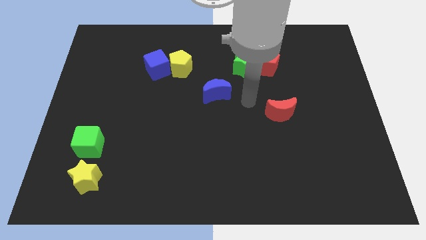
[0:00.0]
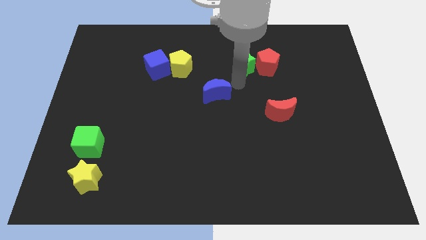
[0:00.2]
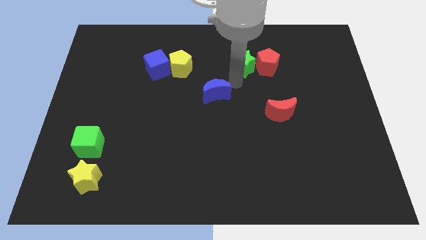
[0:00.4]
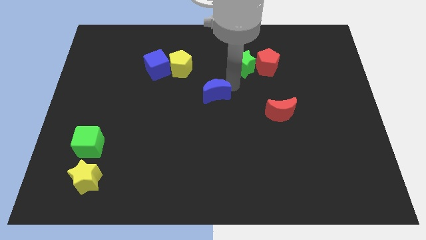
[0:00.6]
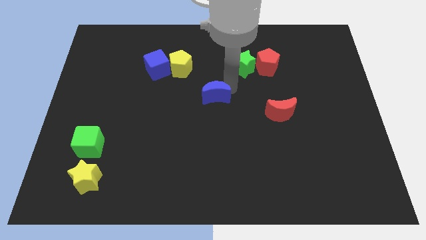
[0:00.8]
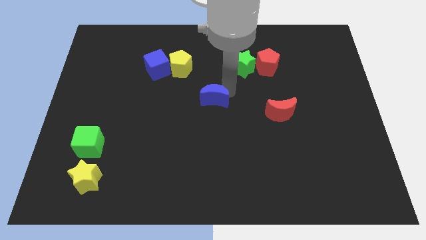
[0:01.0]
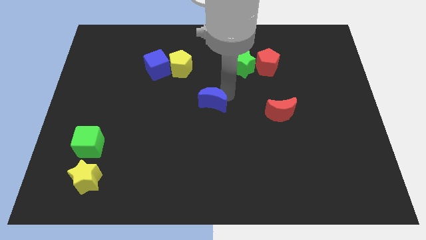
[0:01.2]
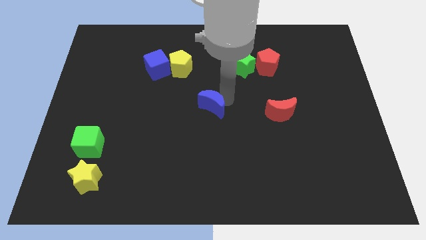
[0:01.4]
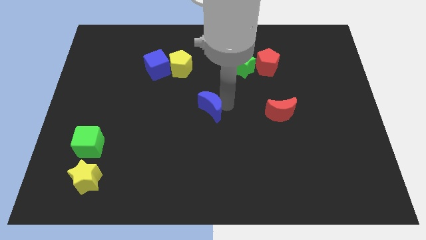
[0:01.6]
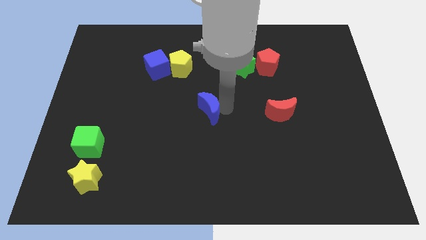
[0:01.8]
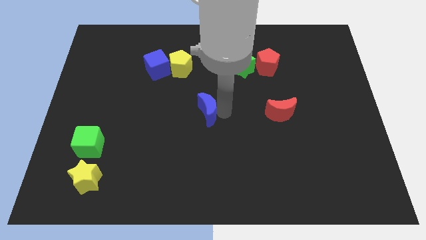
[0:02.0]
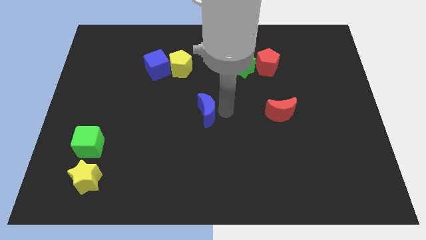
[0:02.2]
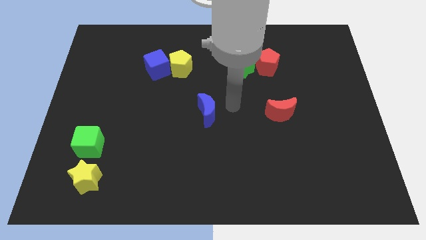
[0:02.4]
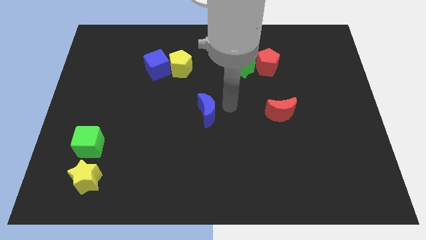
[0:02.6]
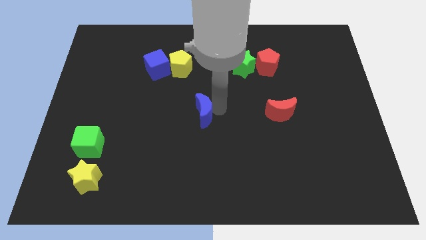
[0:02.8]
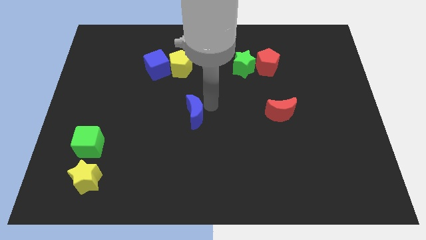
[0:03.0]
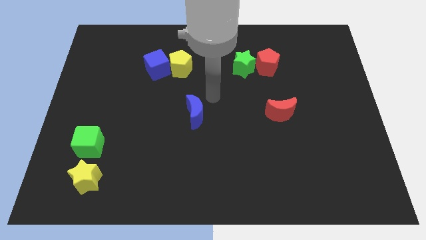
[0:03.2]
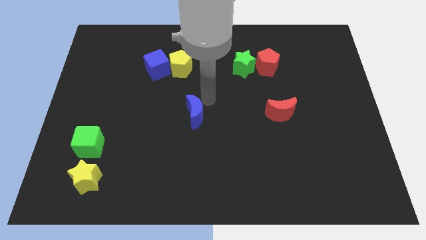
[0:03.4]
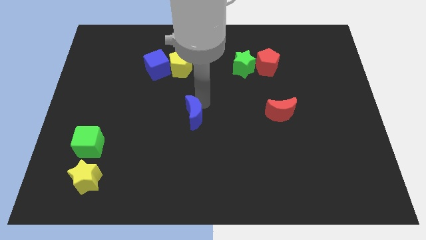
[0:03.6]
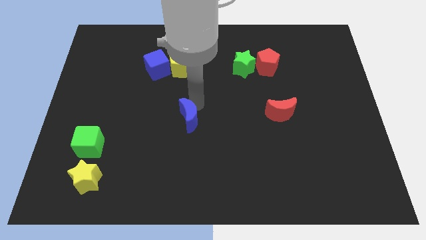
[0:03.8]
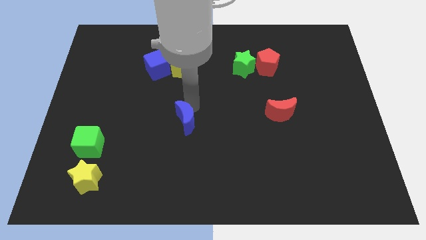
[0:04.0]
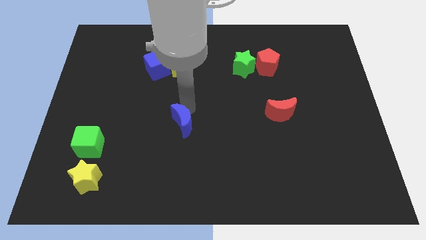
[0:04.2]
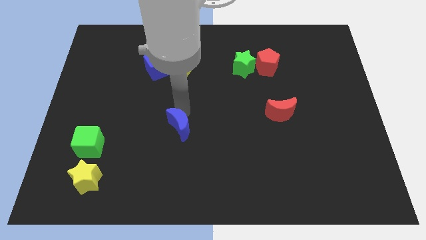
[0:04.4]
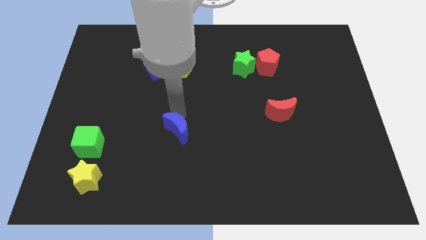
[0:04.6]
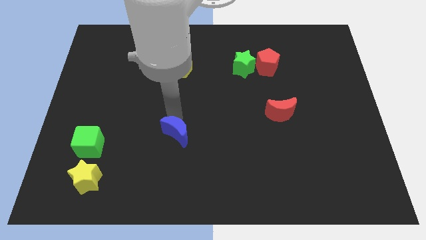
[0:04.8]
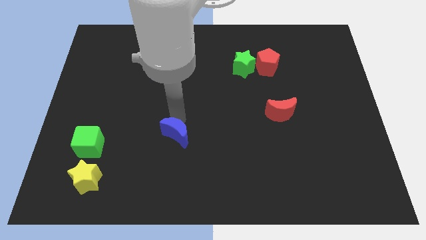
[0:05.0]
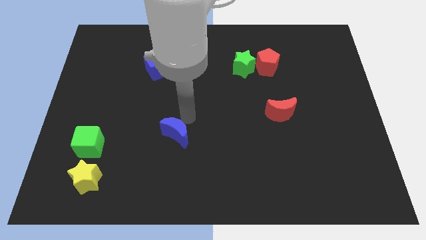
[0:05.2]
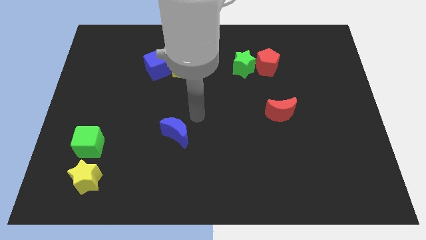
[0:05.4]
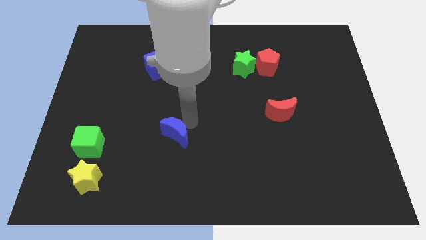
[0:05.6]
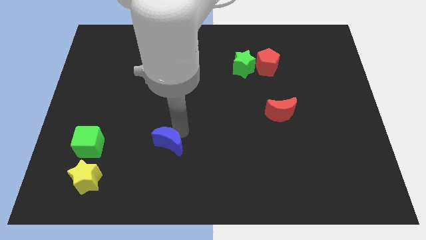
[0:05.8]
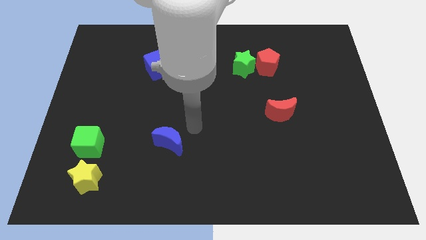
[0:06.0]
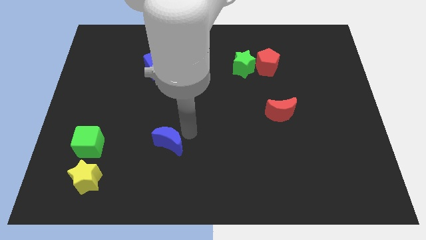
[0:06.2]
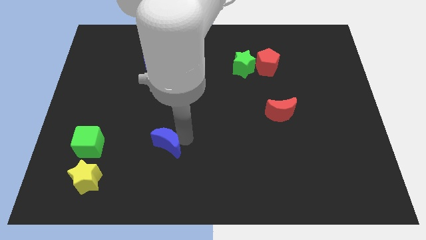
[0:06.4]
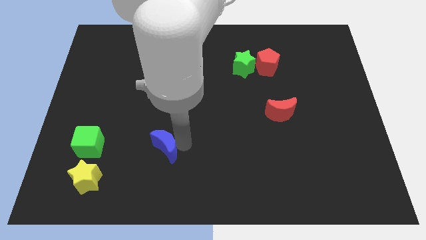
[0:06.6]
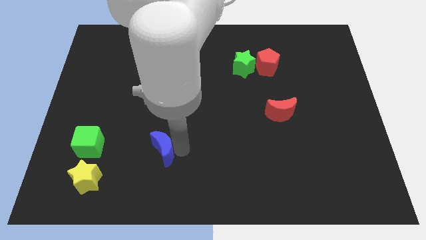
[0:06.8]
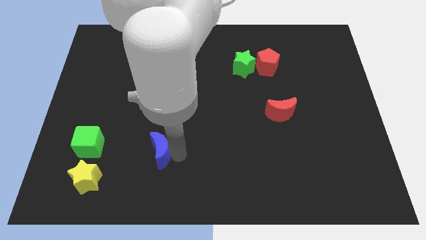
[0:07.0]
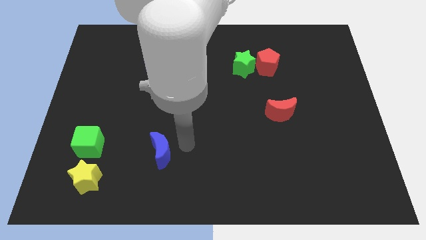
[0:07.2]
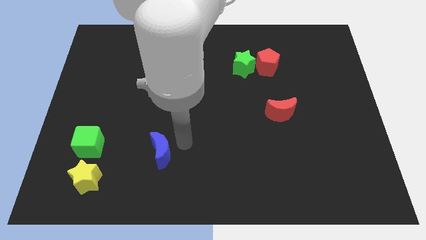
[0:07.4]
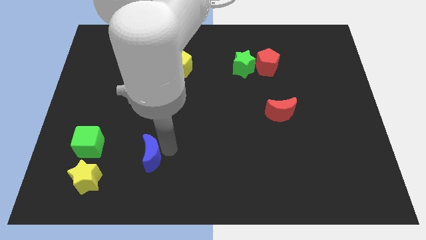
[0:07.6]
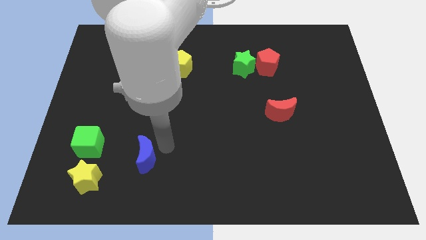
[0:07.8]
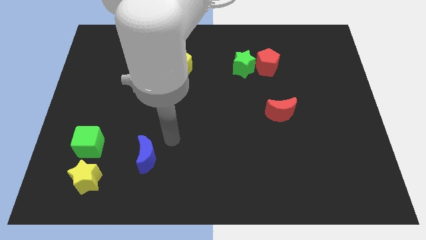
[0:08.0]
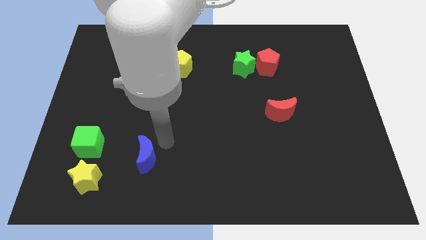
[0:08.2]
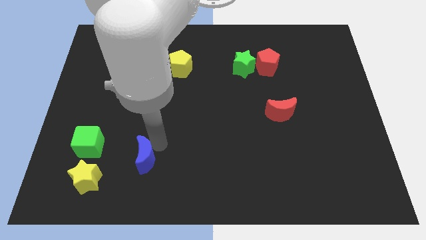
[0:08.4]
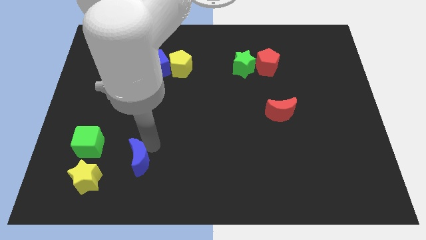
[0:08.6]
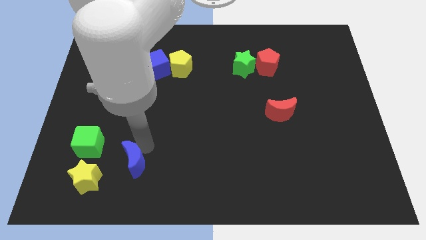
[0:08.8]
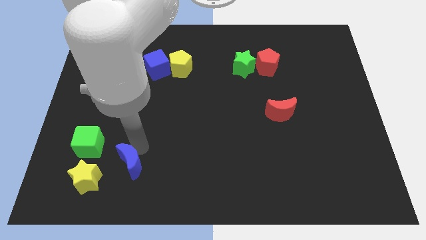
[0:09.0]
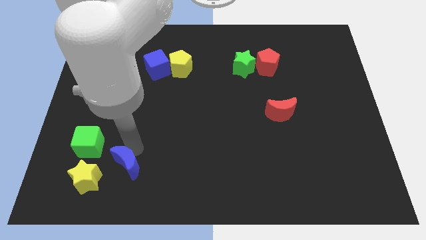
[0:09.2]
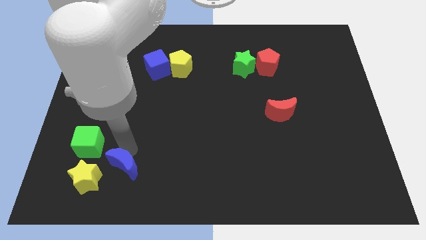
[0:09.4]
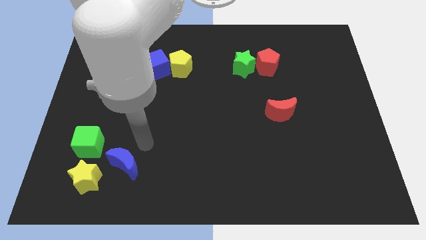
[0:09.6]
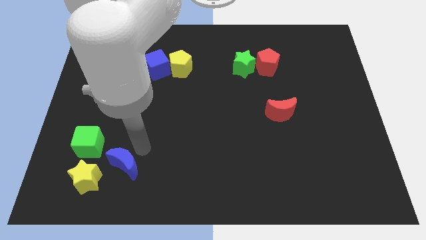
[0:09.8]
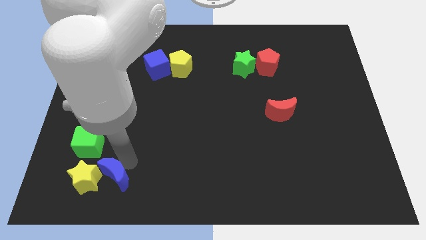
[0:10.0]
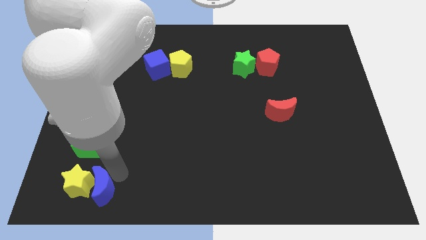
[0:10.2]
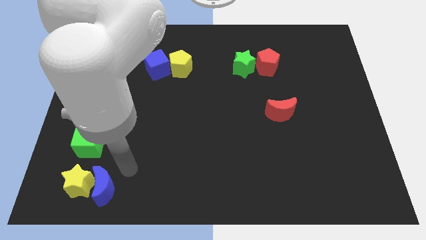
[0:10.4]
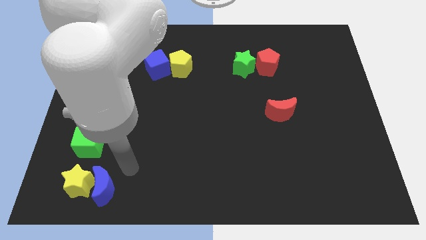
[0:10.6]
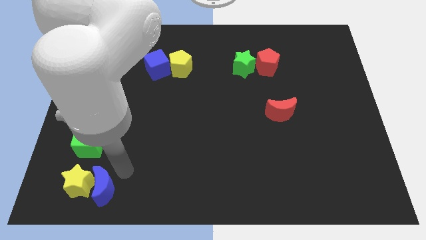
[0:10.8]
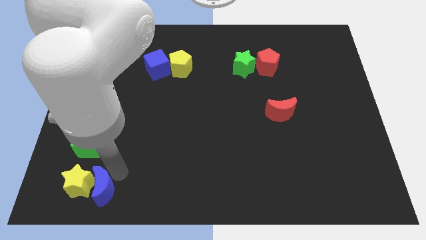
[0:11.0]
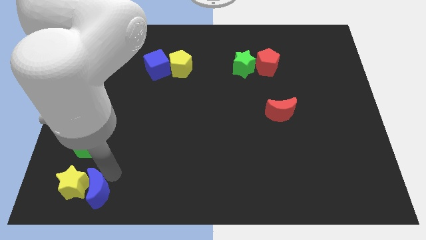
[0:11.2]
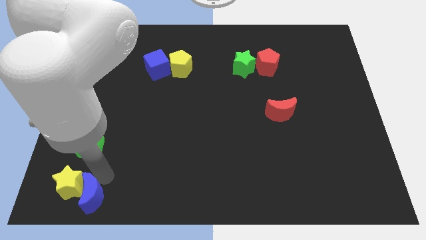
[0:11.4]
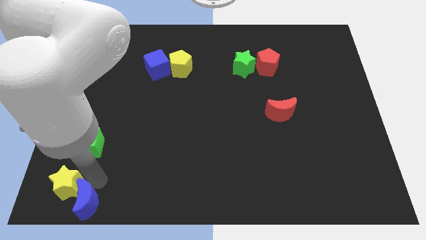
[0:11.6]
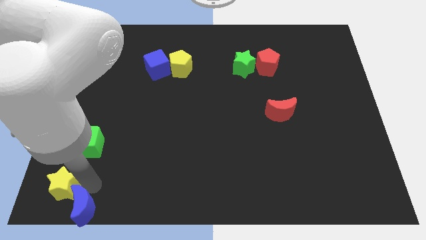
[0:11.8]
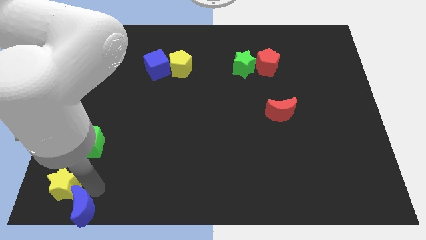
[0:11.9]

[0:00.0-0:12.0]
move the blue moon to the bottom left
